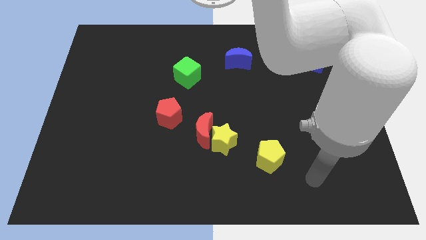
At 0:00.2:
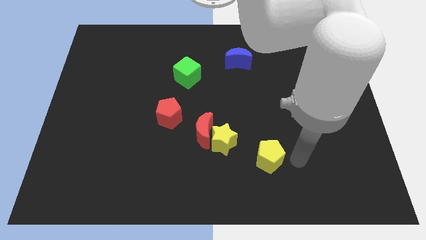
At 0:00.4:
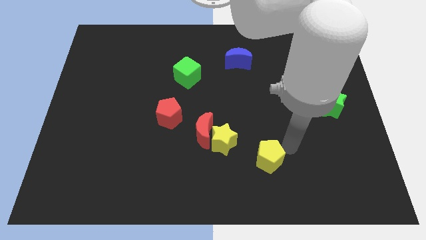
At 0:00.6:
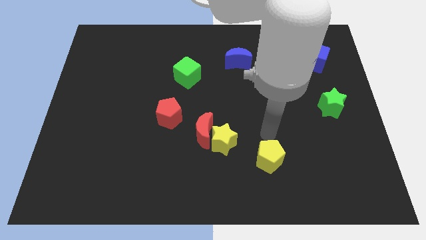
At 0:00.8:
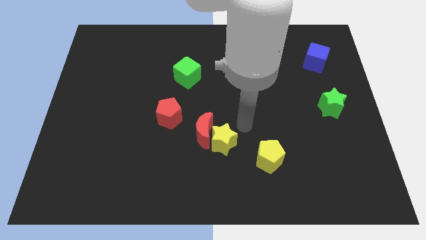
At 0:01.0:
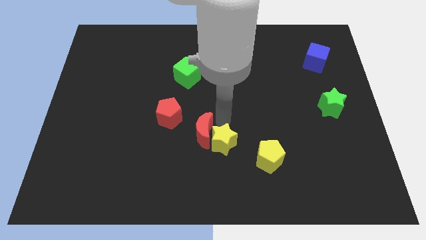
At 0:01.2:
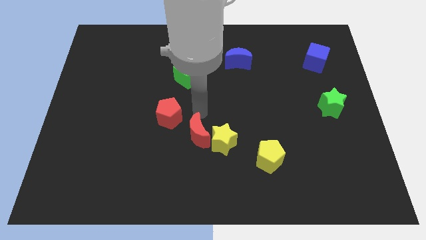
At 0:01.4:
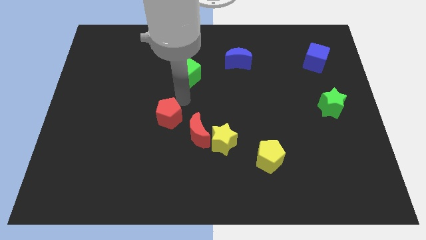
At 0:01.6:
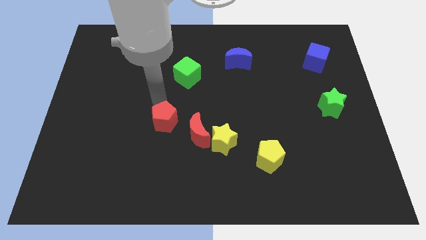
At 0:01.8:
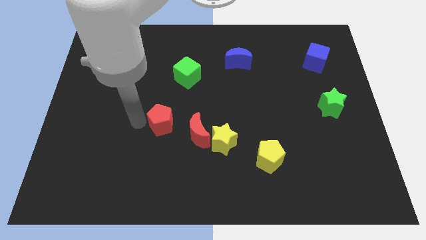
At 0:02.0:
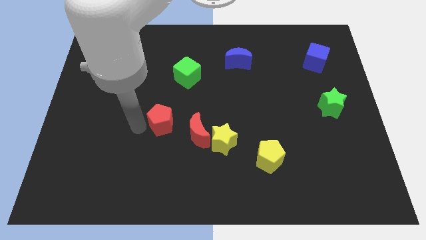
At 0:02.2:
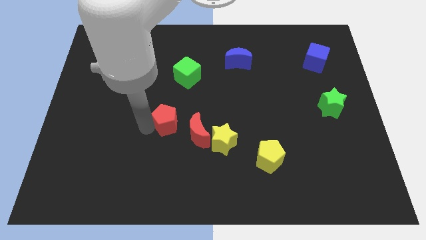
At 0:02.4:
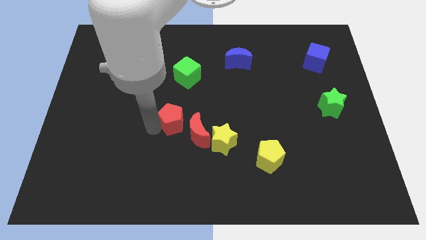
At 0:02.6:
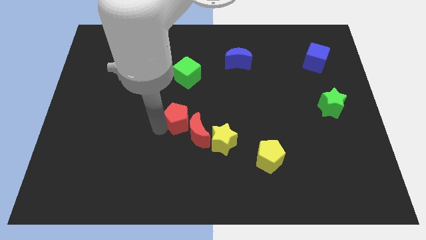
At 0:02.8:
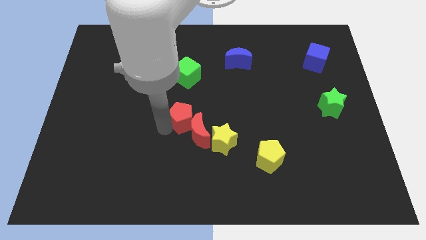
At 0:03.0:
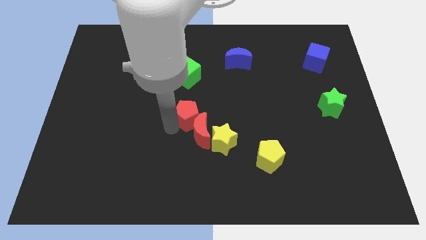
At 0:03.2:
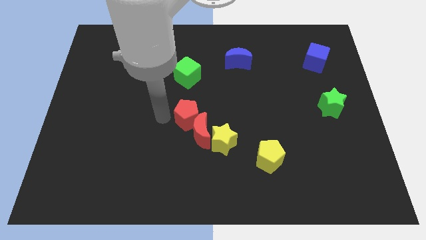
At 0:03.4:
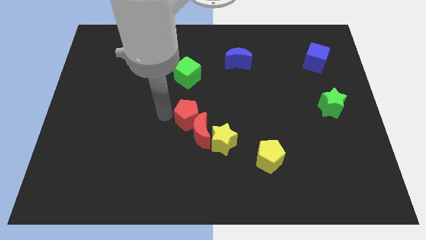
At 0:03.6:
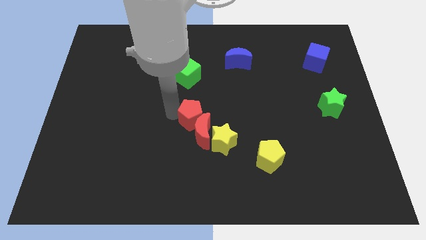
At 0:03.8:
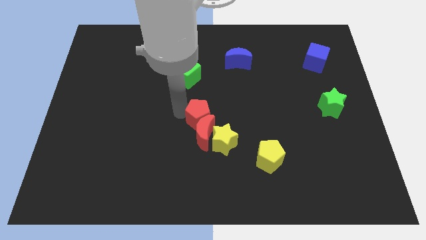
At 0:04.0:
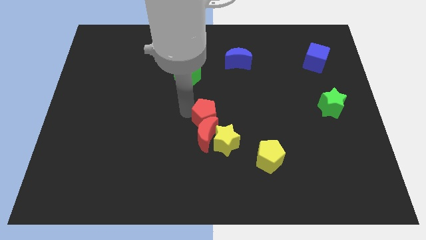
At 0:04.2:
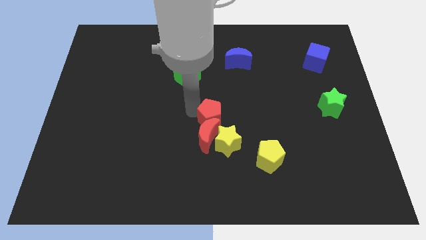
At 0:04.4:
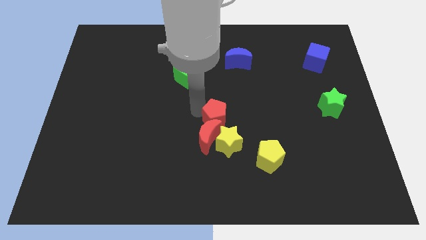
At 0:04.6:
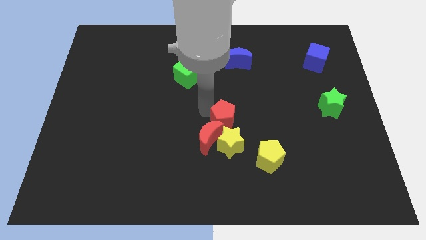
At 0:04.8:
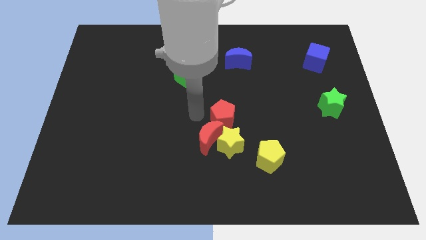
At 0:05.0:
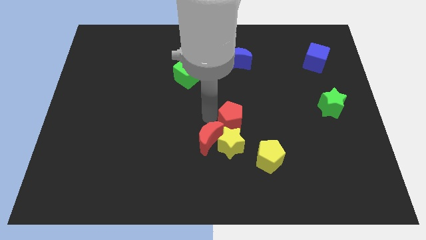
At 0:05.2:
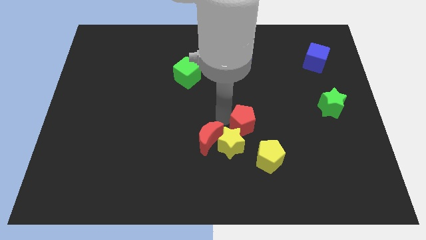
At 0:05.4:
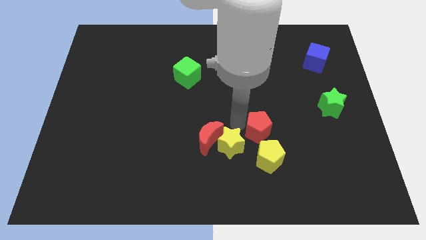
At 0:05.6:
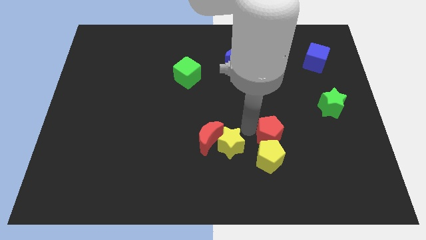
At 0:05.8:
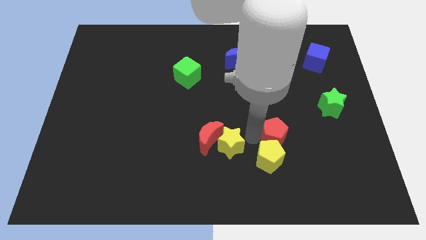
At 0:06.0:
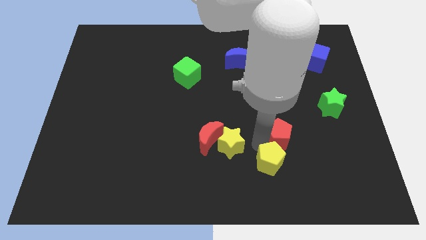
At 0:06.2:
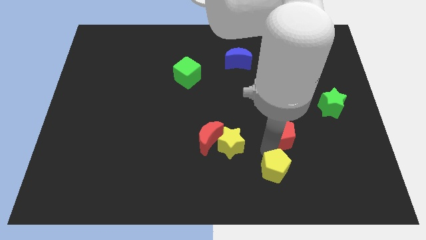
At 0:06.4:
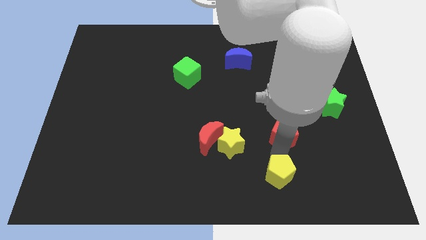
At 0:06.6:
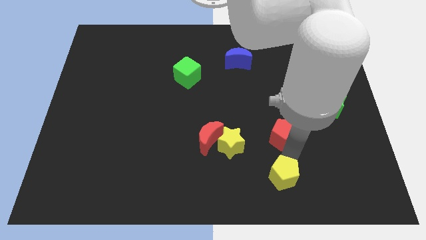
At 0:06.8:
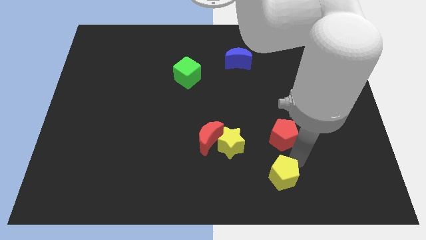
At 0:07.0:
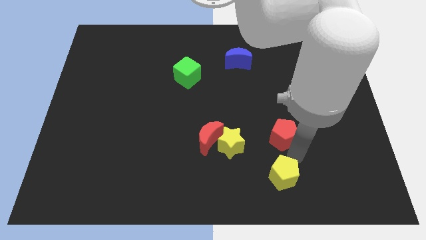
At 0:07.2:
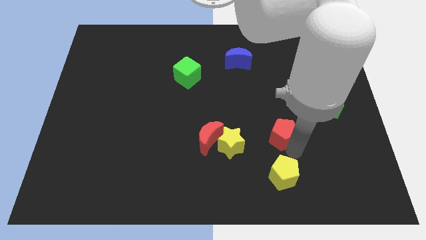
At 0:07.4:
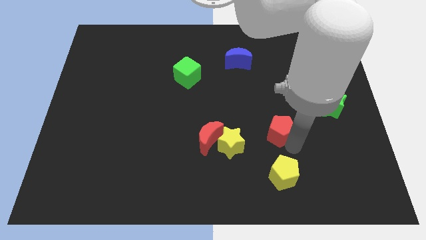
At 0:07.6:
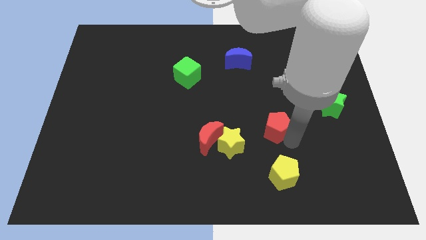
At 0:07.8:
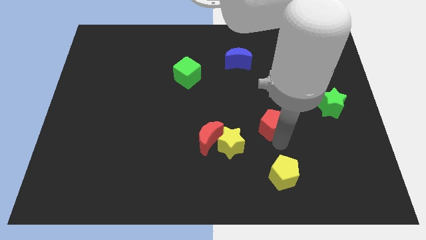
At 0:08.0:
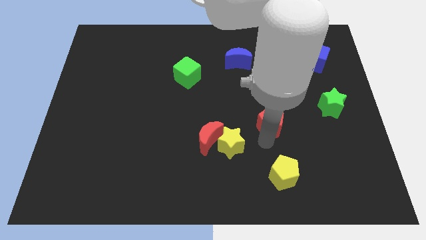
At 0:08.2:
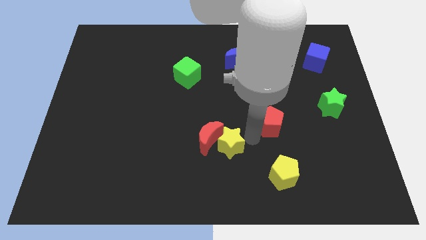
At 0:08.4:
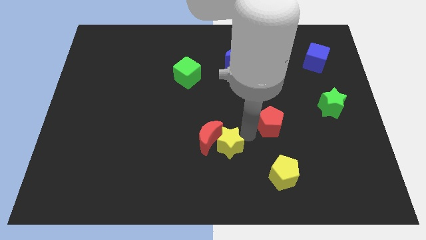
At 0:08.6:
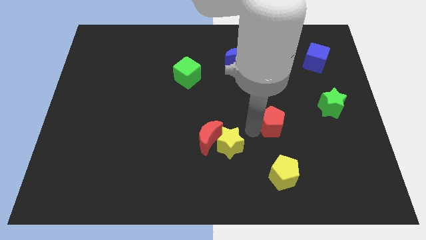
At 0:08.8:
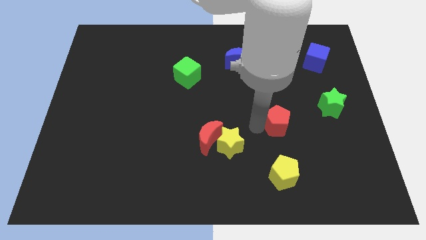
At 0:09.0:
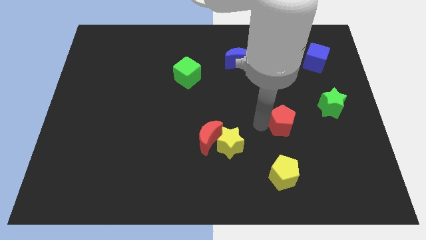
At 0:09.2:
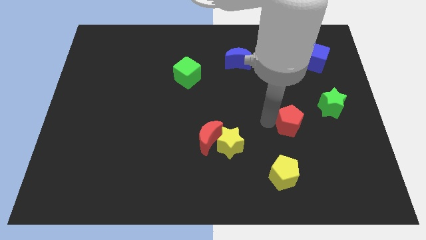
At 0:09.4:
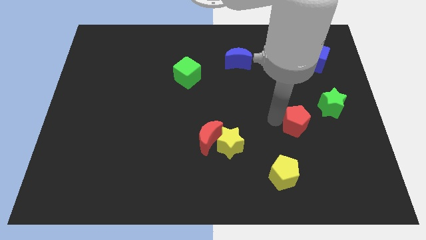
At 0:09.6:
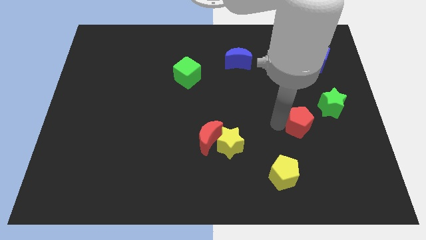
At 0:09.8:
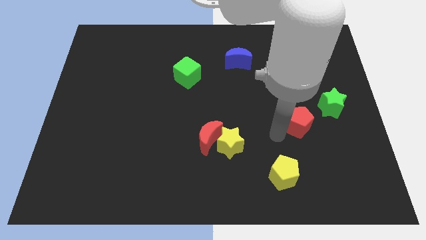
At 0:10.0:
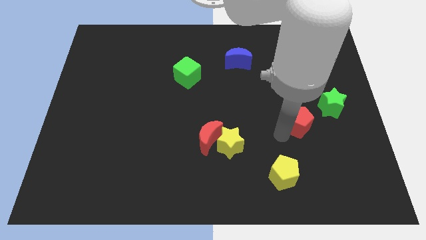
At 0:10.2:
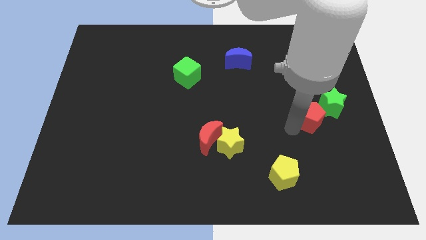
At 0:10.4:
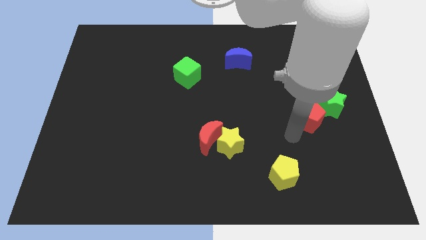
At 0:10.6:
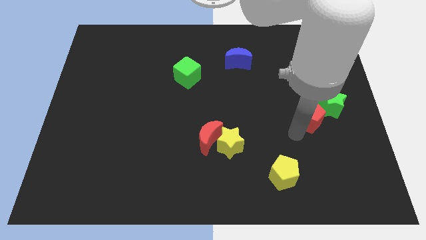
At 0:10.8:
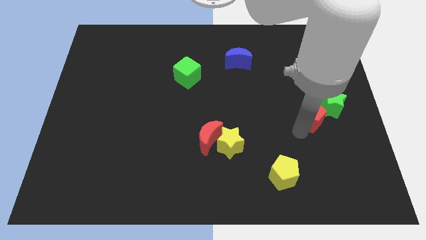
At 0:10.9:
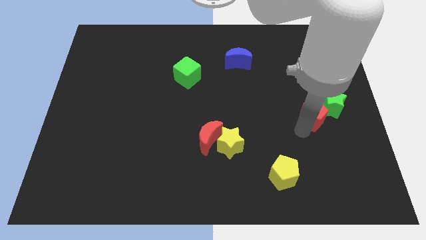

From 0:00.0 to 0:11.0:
push the red pentagon to the green star

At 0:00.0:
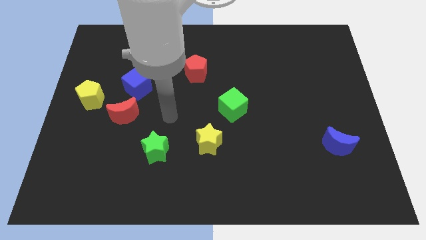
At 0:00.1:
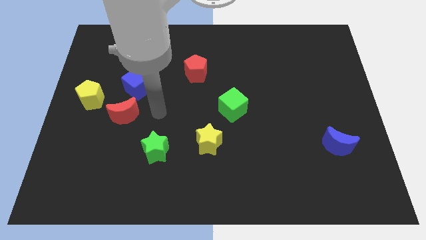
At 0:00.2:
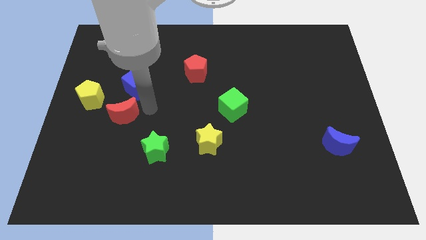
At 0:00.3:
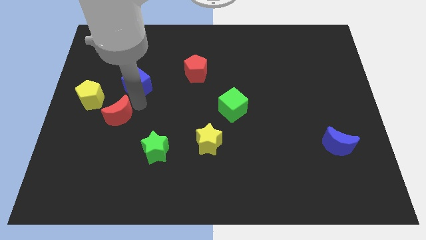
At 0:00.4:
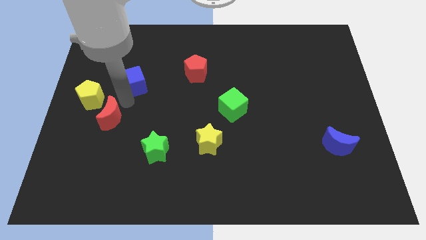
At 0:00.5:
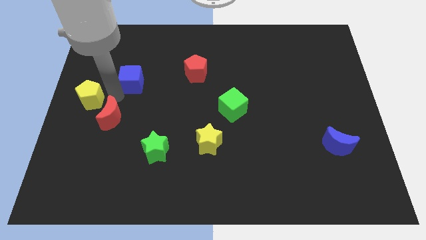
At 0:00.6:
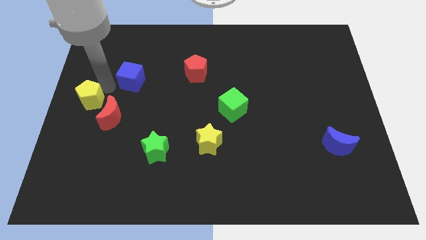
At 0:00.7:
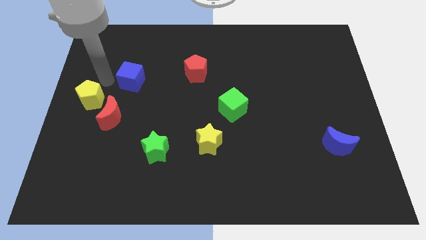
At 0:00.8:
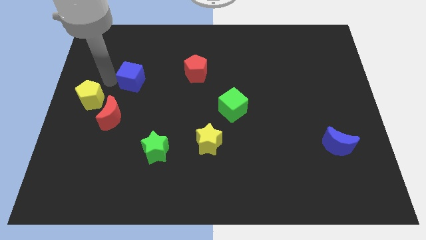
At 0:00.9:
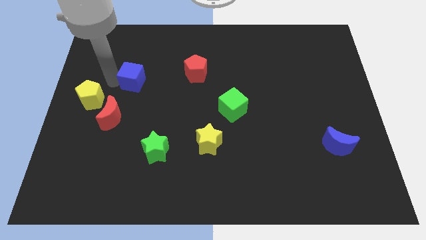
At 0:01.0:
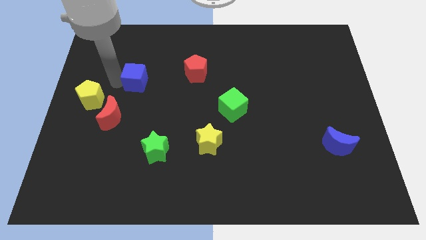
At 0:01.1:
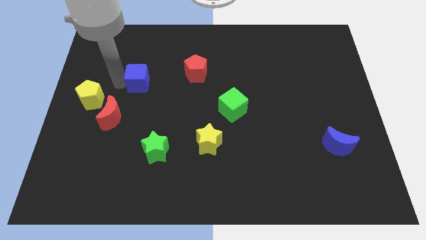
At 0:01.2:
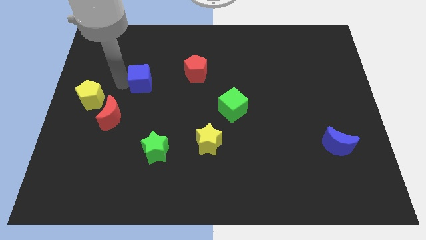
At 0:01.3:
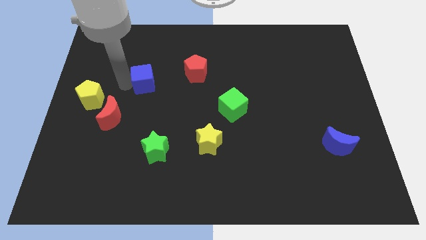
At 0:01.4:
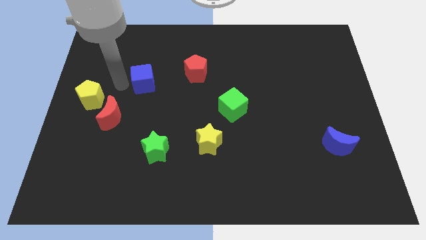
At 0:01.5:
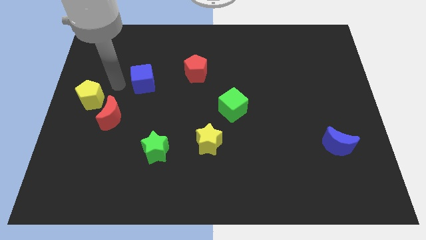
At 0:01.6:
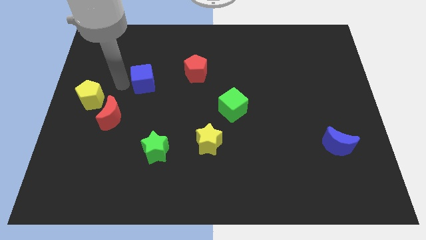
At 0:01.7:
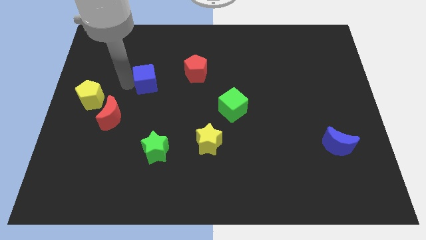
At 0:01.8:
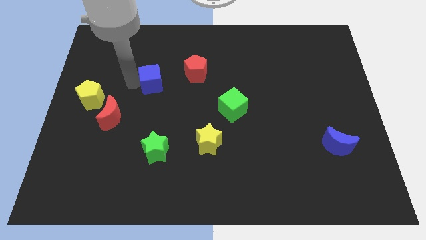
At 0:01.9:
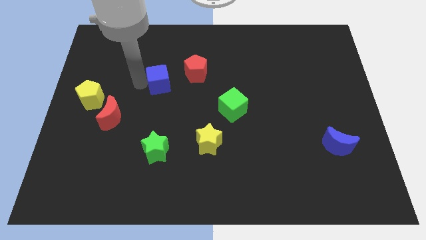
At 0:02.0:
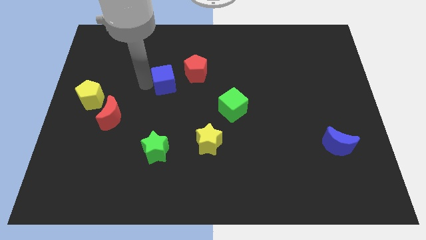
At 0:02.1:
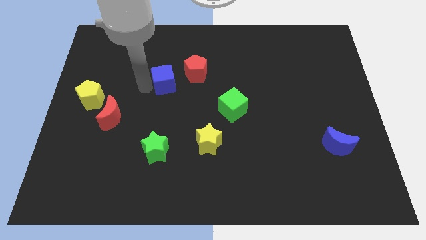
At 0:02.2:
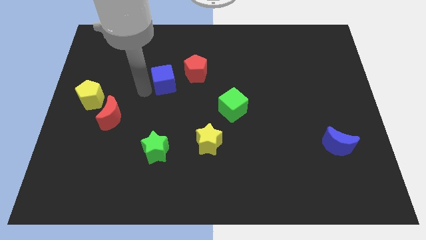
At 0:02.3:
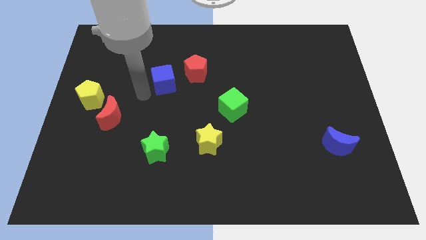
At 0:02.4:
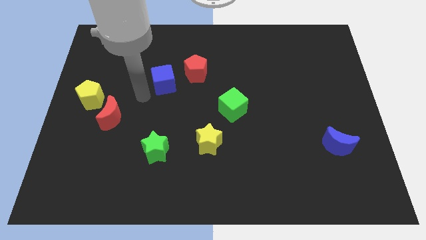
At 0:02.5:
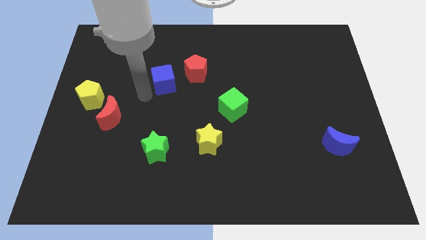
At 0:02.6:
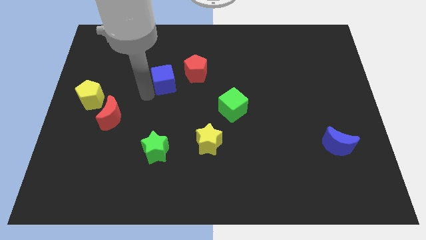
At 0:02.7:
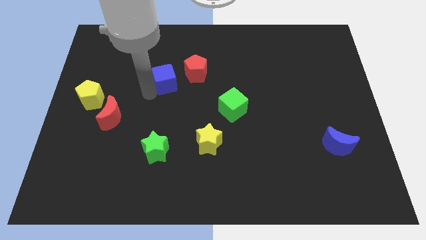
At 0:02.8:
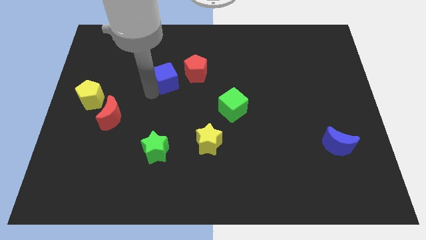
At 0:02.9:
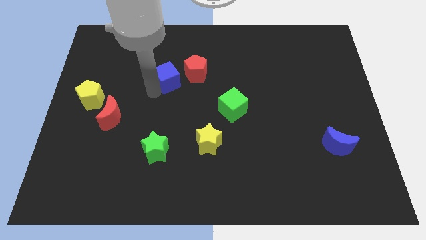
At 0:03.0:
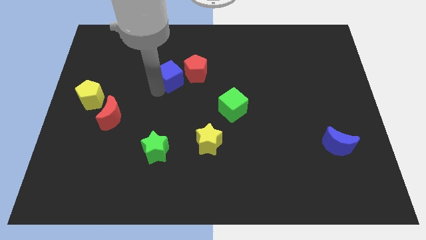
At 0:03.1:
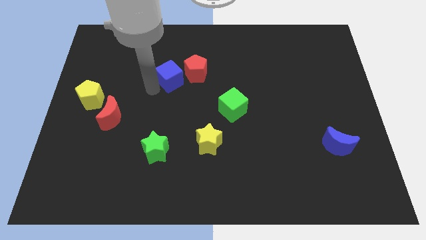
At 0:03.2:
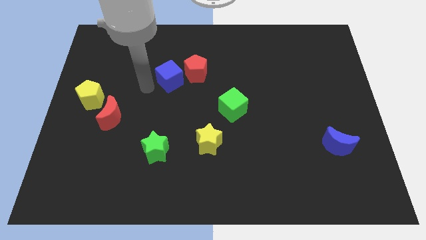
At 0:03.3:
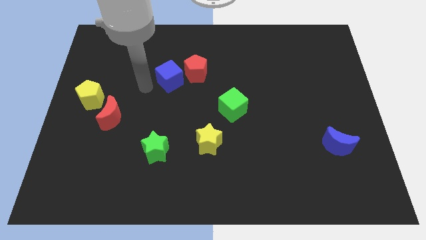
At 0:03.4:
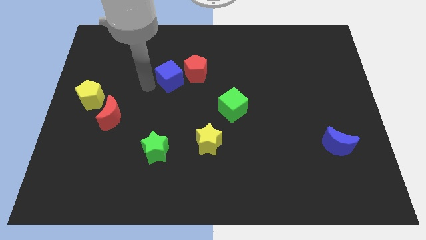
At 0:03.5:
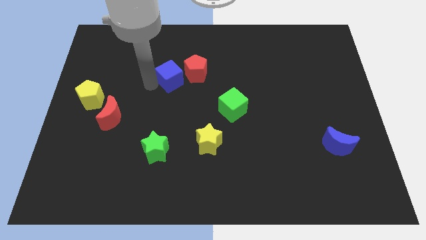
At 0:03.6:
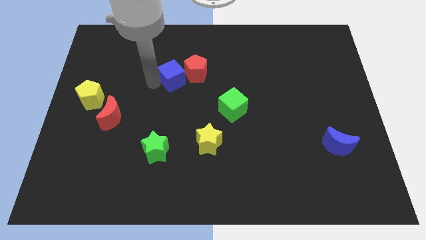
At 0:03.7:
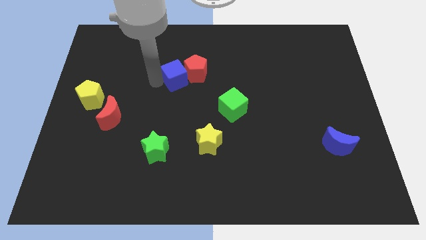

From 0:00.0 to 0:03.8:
push the blue cube to the red pentagon
